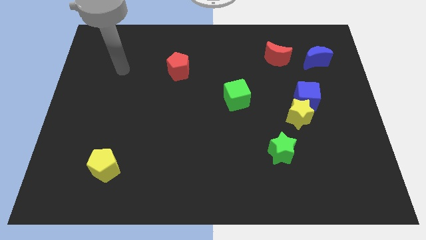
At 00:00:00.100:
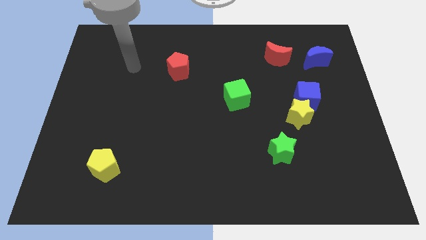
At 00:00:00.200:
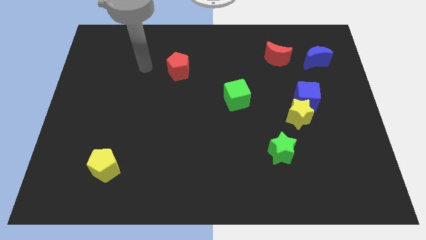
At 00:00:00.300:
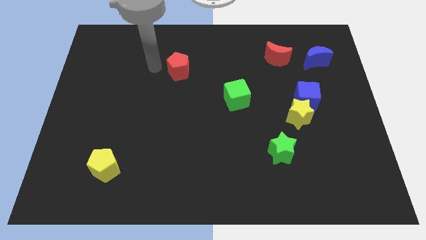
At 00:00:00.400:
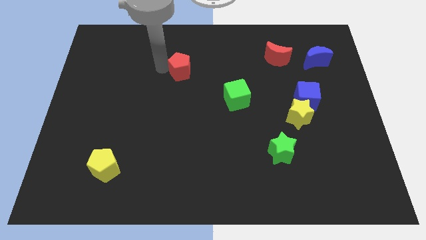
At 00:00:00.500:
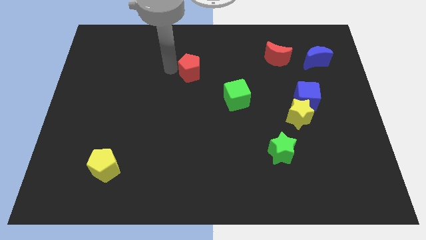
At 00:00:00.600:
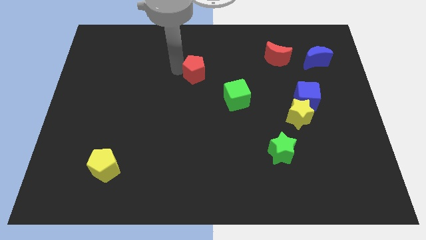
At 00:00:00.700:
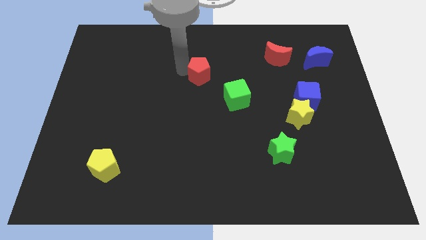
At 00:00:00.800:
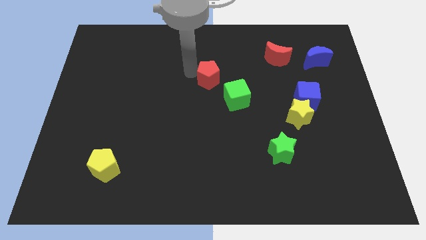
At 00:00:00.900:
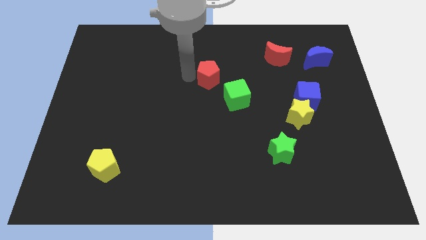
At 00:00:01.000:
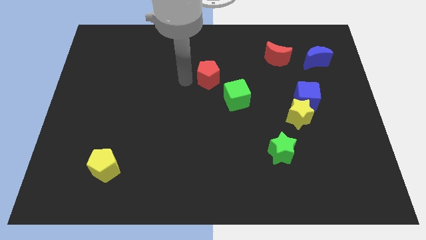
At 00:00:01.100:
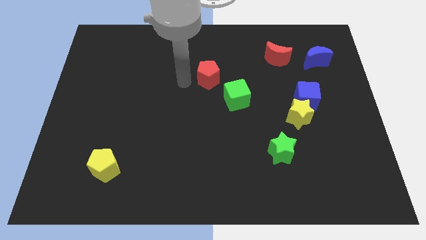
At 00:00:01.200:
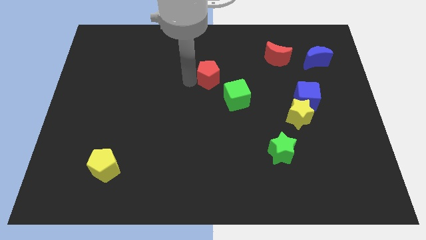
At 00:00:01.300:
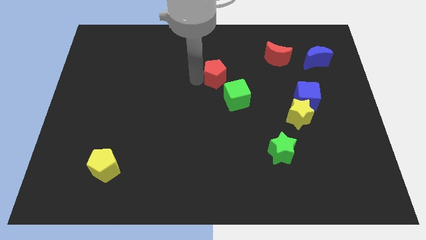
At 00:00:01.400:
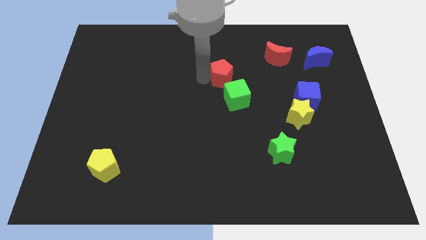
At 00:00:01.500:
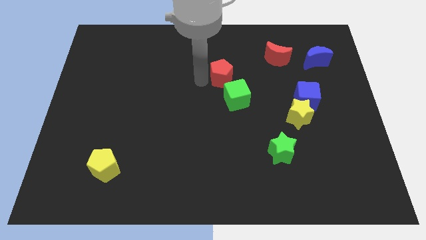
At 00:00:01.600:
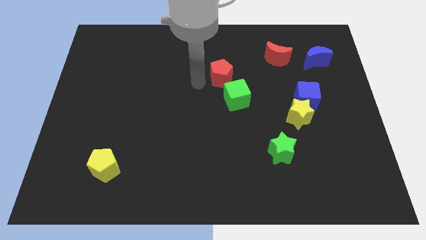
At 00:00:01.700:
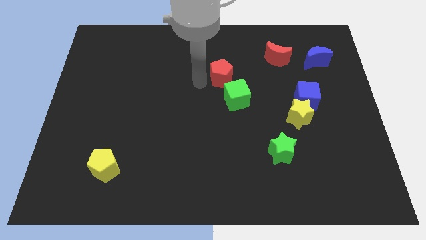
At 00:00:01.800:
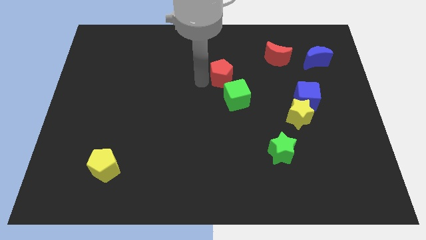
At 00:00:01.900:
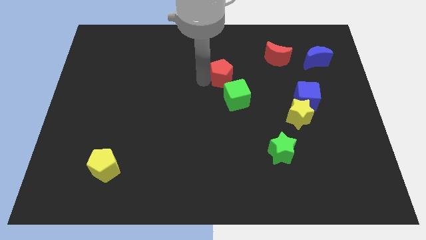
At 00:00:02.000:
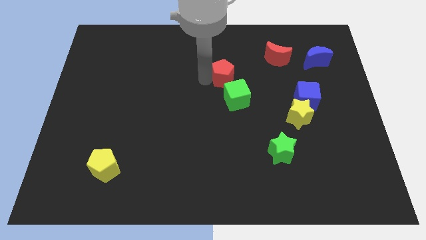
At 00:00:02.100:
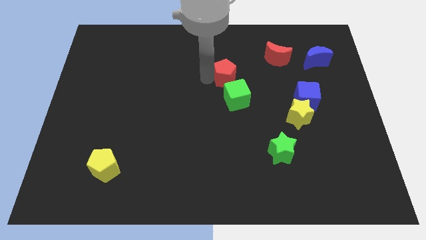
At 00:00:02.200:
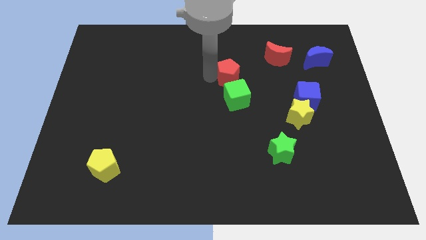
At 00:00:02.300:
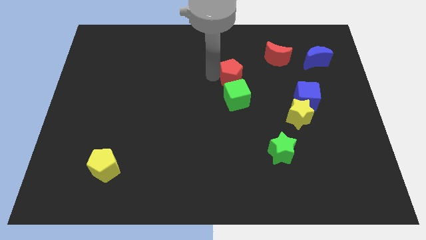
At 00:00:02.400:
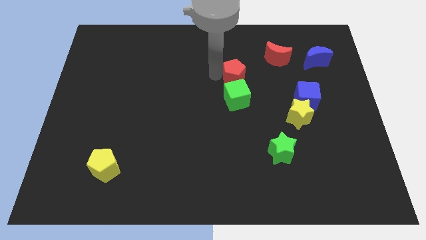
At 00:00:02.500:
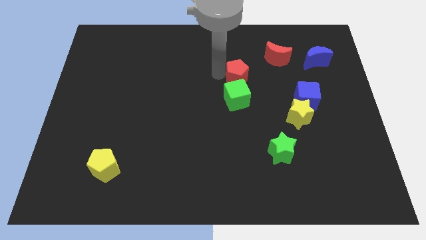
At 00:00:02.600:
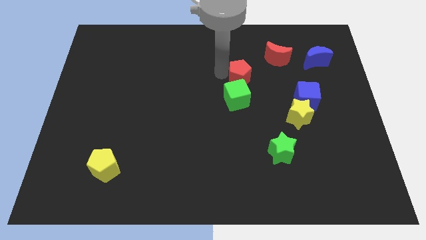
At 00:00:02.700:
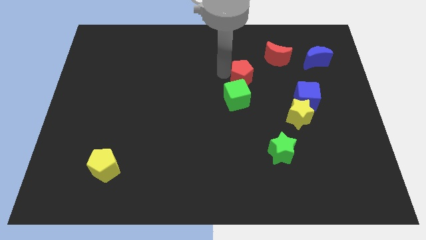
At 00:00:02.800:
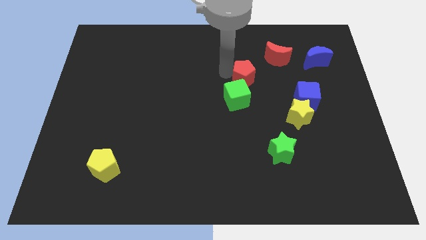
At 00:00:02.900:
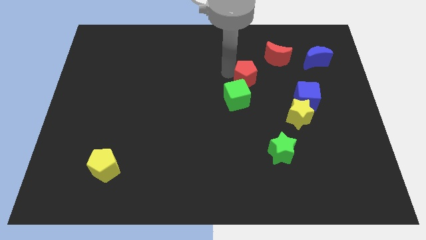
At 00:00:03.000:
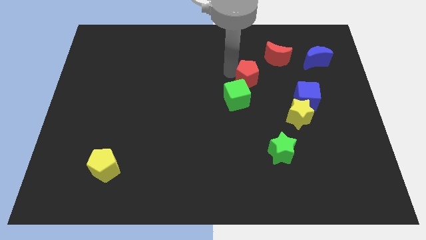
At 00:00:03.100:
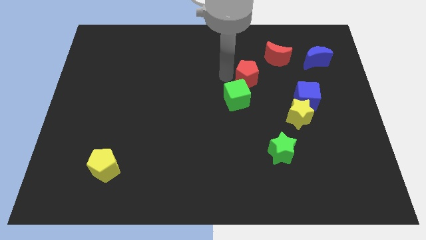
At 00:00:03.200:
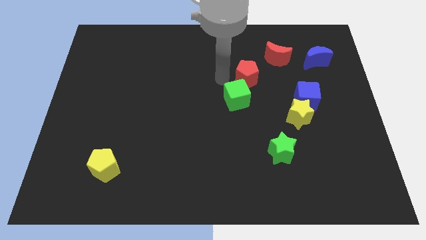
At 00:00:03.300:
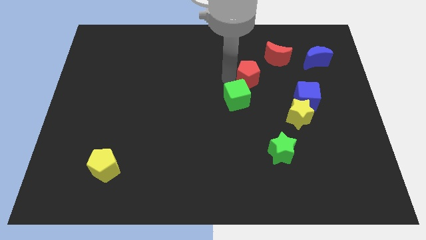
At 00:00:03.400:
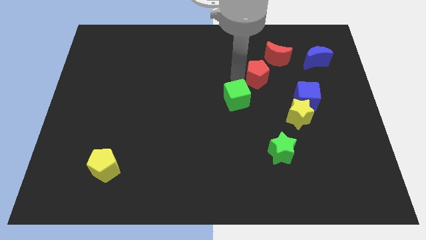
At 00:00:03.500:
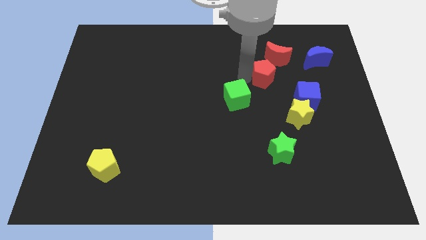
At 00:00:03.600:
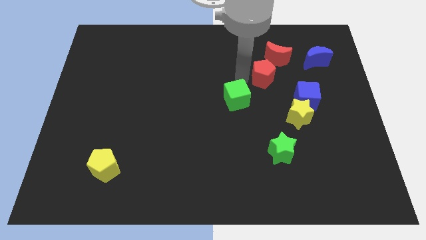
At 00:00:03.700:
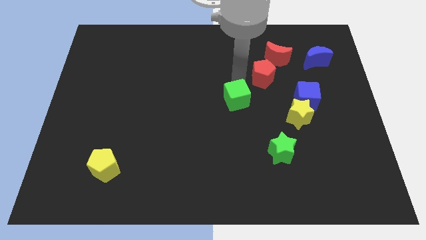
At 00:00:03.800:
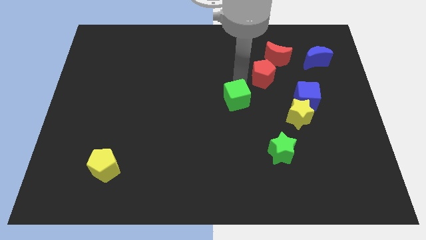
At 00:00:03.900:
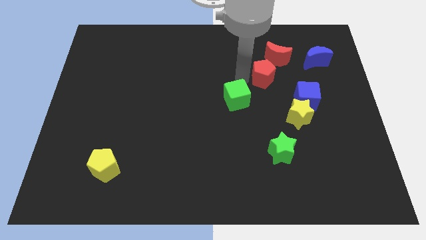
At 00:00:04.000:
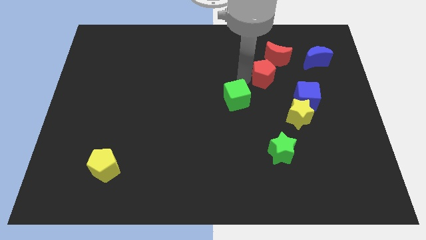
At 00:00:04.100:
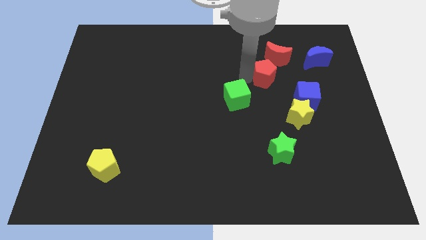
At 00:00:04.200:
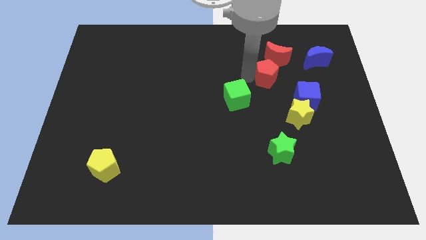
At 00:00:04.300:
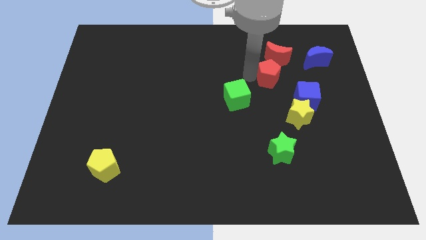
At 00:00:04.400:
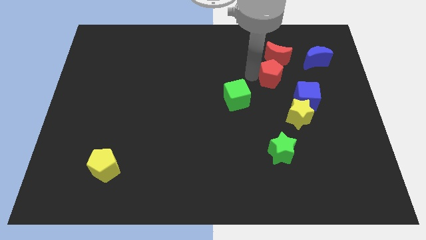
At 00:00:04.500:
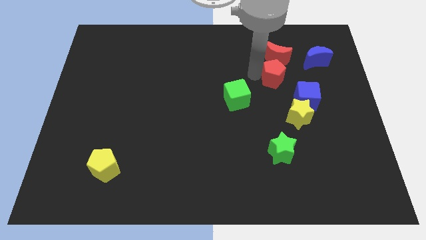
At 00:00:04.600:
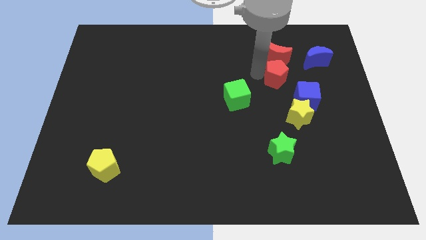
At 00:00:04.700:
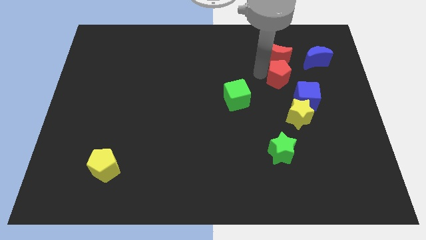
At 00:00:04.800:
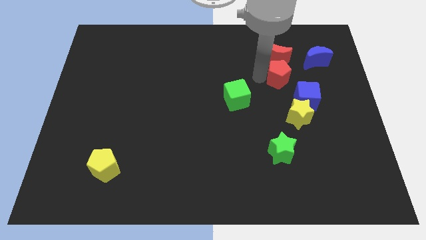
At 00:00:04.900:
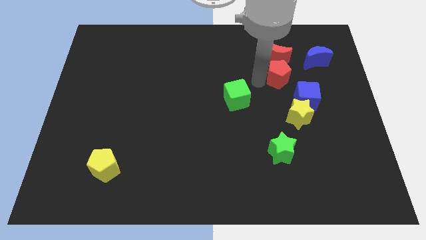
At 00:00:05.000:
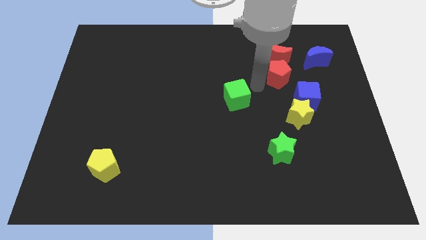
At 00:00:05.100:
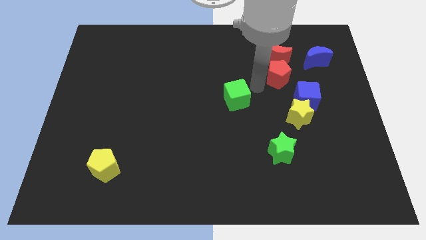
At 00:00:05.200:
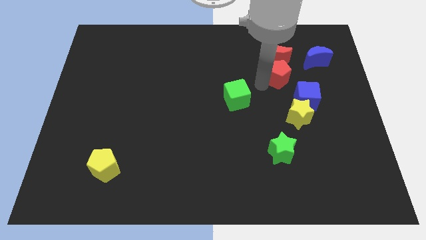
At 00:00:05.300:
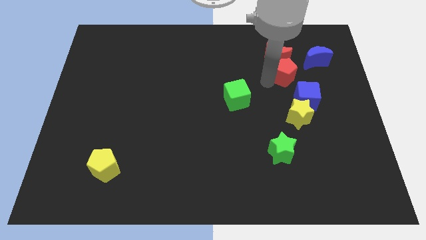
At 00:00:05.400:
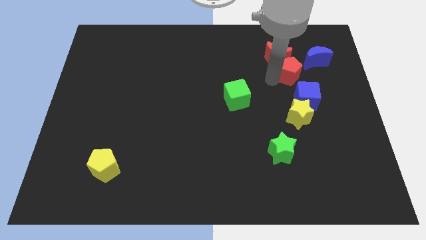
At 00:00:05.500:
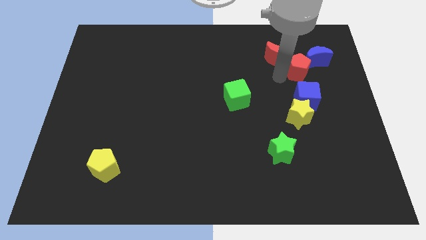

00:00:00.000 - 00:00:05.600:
slide the red pentagon close to the blue moon

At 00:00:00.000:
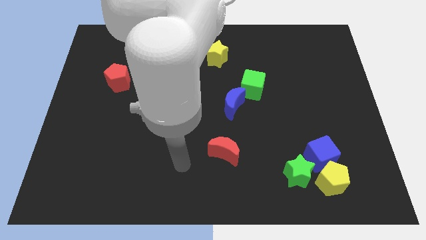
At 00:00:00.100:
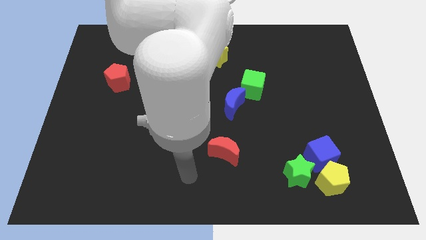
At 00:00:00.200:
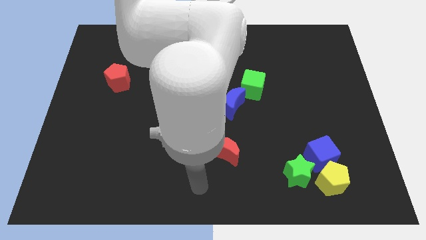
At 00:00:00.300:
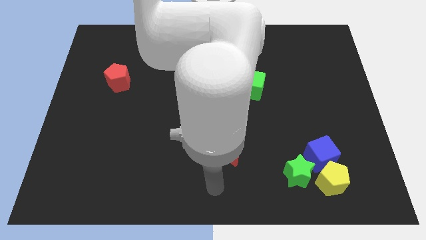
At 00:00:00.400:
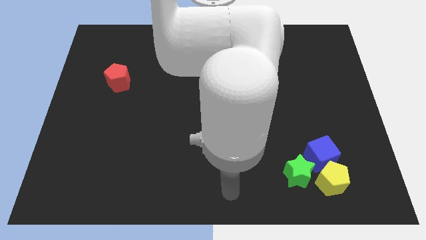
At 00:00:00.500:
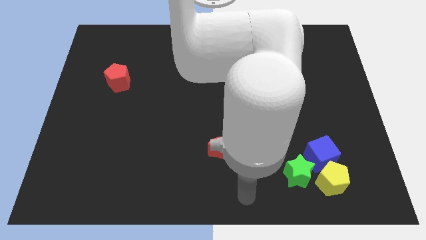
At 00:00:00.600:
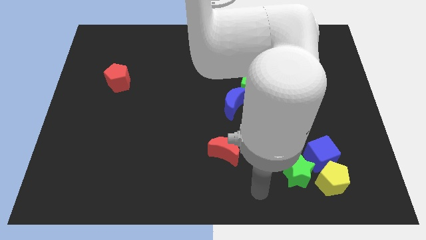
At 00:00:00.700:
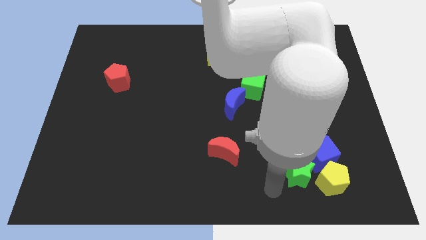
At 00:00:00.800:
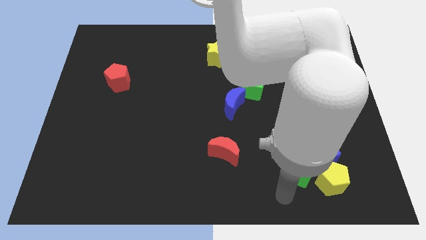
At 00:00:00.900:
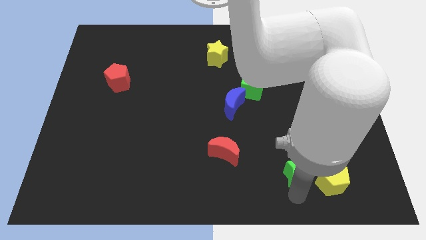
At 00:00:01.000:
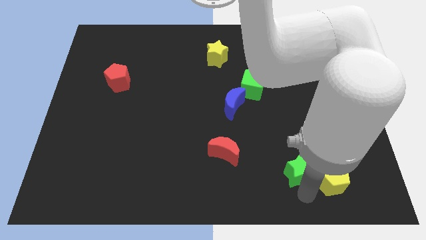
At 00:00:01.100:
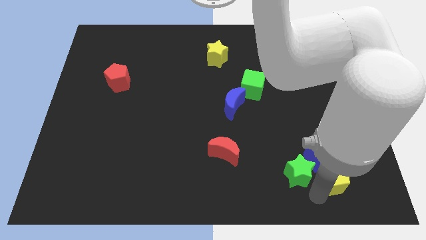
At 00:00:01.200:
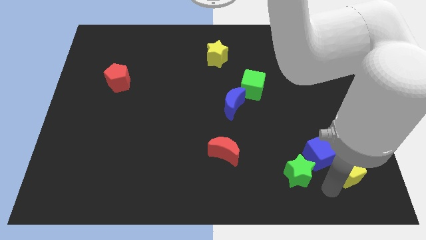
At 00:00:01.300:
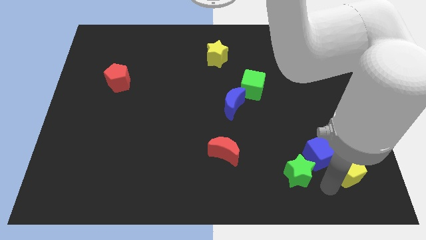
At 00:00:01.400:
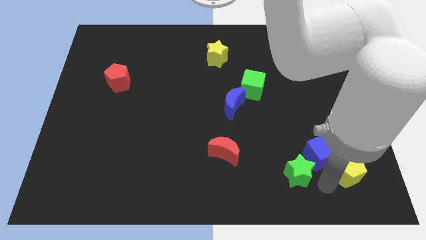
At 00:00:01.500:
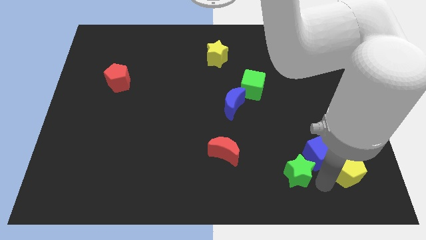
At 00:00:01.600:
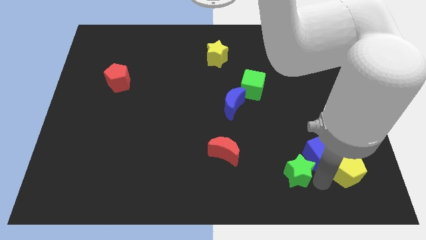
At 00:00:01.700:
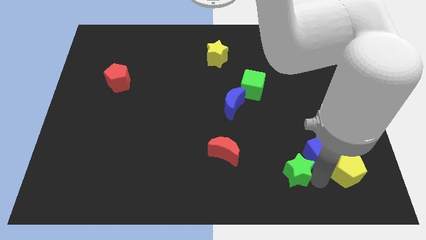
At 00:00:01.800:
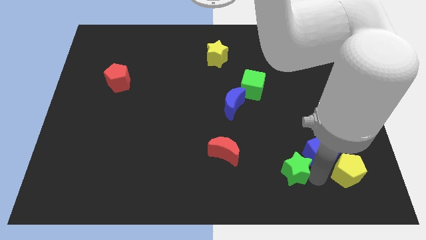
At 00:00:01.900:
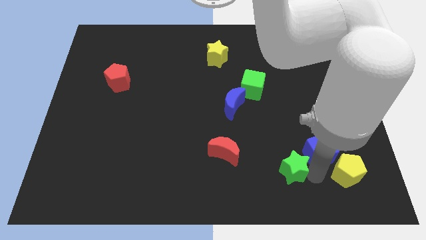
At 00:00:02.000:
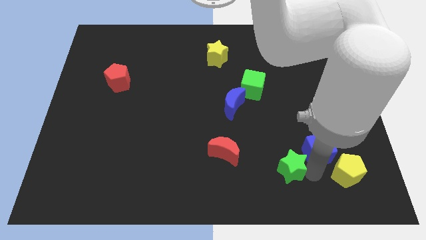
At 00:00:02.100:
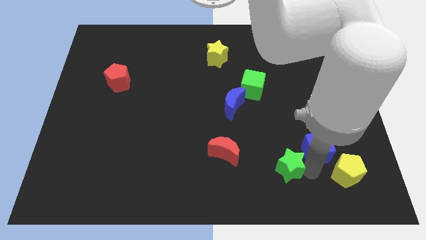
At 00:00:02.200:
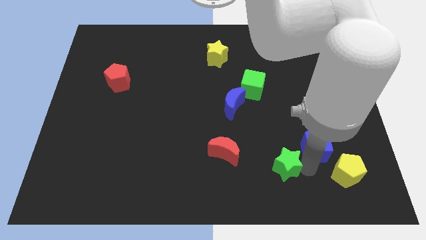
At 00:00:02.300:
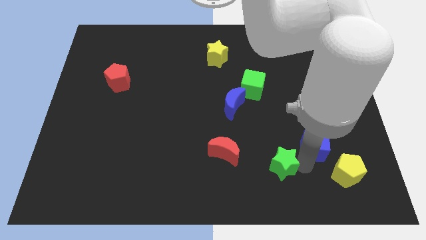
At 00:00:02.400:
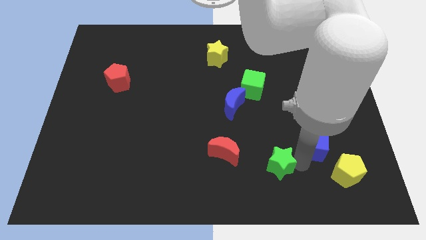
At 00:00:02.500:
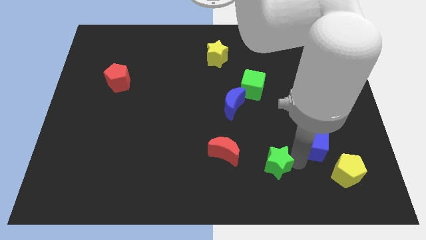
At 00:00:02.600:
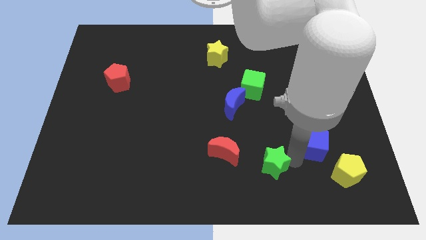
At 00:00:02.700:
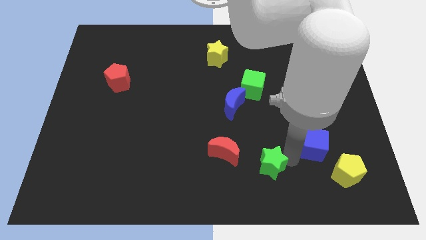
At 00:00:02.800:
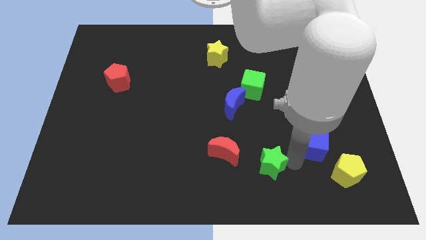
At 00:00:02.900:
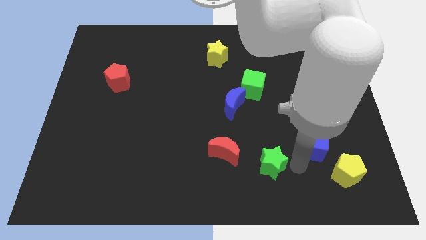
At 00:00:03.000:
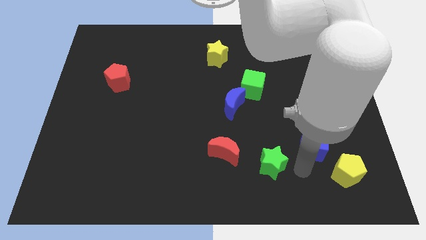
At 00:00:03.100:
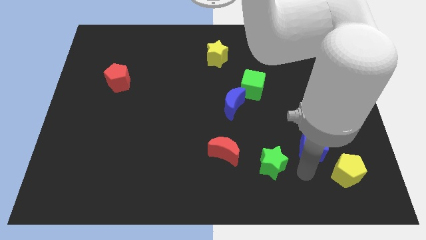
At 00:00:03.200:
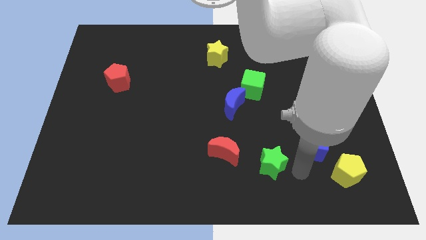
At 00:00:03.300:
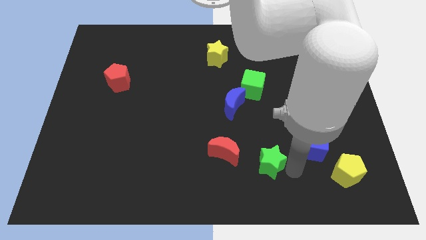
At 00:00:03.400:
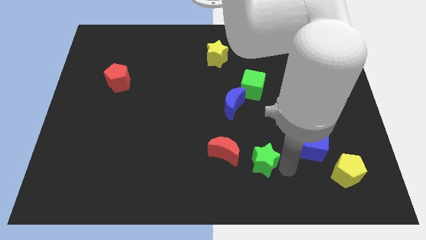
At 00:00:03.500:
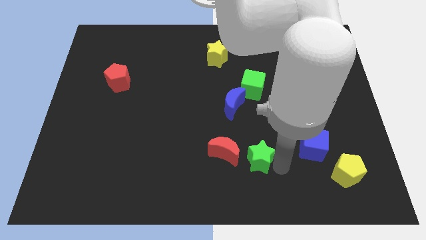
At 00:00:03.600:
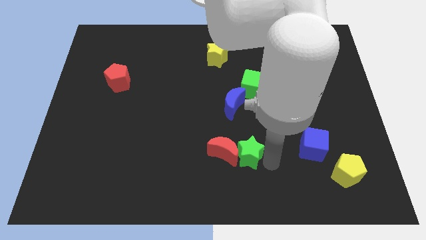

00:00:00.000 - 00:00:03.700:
push the green star towards the red moon
